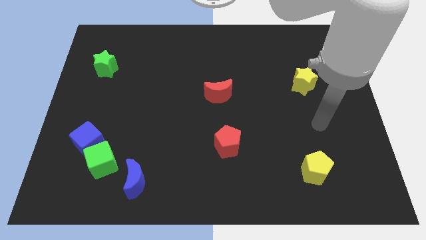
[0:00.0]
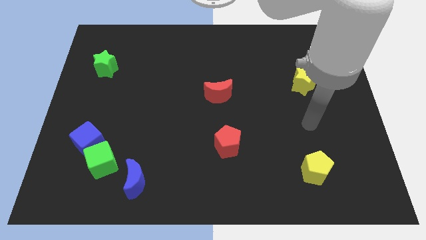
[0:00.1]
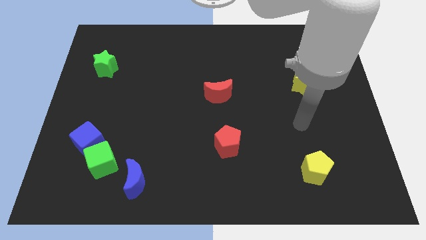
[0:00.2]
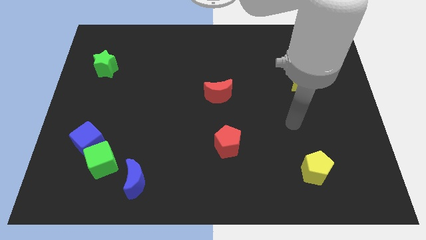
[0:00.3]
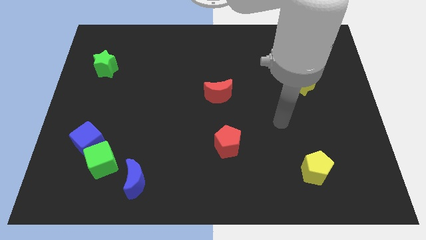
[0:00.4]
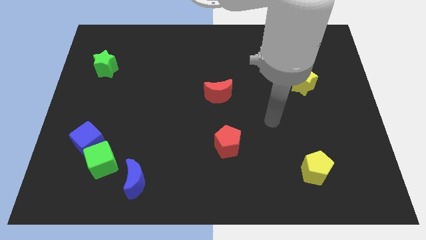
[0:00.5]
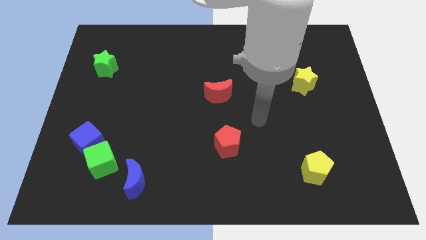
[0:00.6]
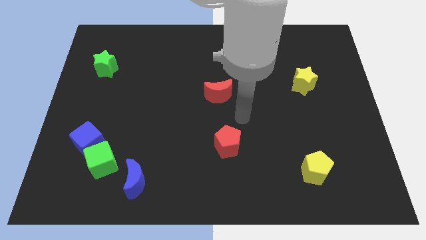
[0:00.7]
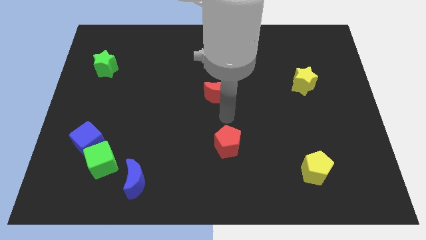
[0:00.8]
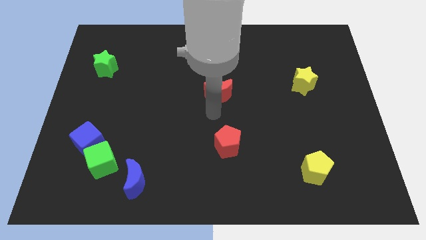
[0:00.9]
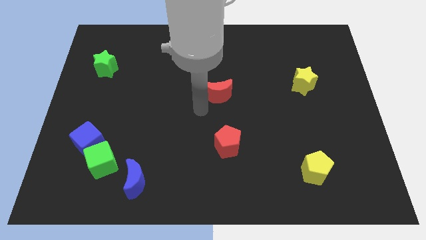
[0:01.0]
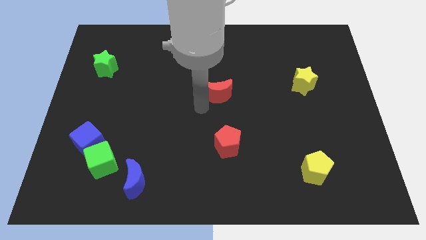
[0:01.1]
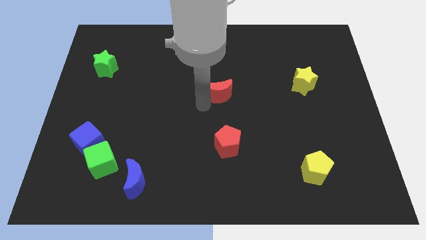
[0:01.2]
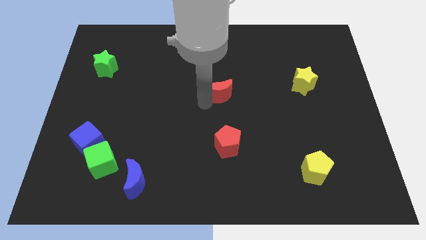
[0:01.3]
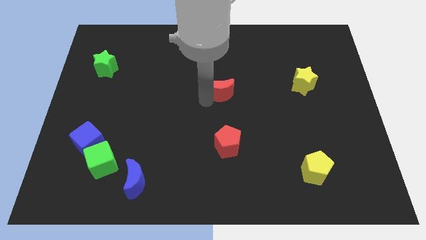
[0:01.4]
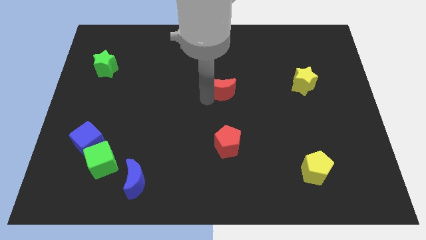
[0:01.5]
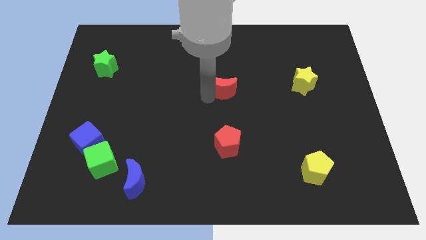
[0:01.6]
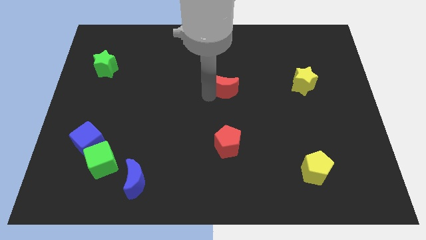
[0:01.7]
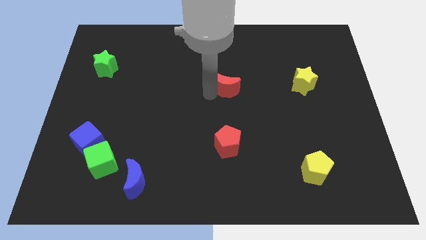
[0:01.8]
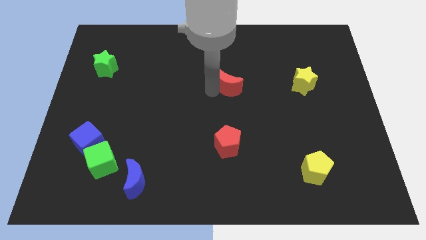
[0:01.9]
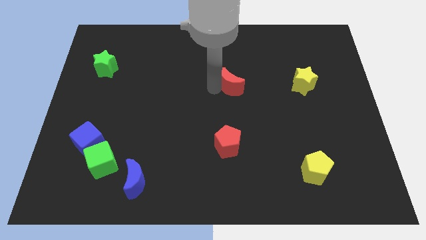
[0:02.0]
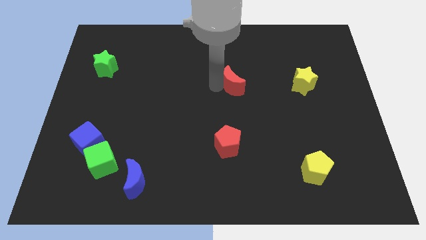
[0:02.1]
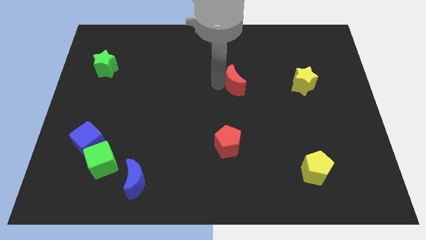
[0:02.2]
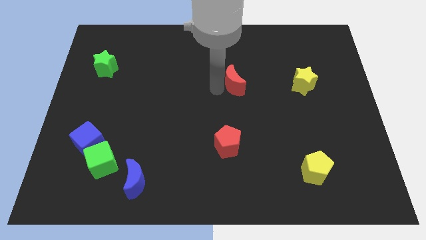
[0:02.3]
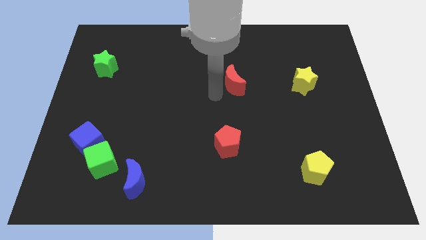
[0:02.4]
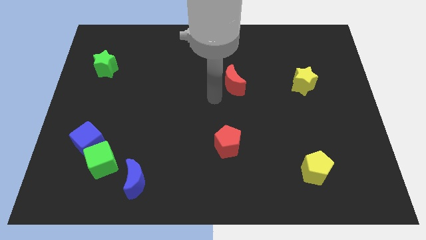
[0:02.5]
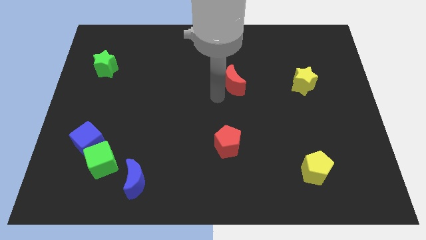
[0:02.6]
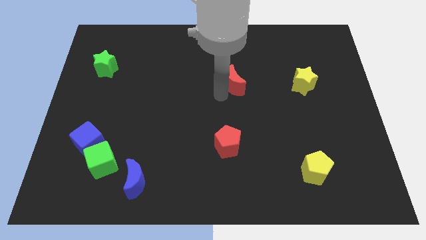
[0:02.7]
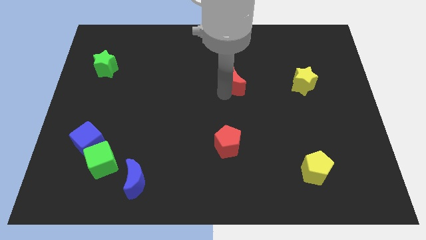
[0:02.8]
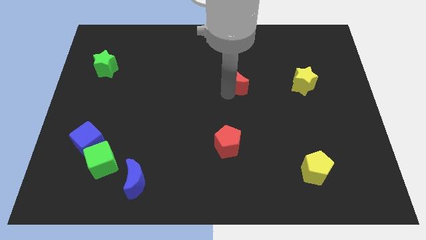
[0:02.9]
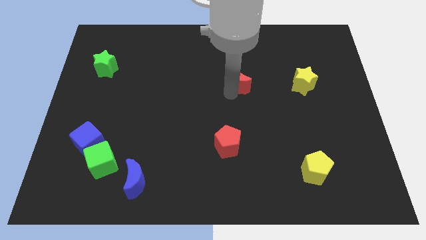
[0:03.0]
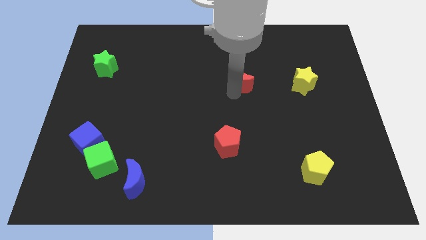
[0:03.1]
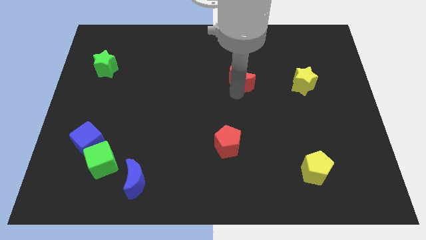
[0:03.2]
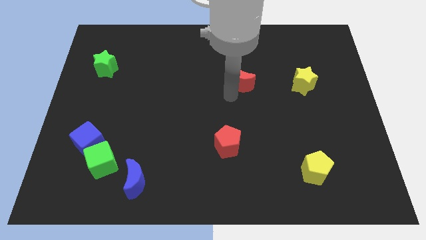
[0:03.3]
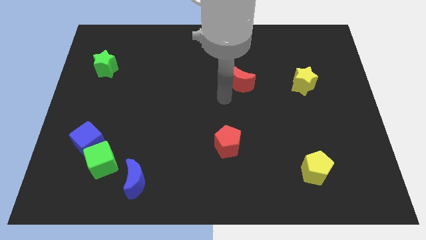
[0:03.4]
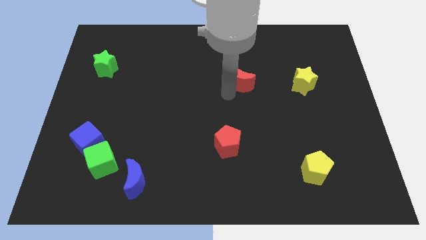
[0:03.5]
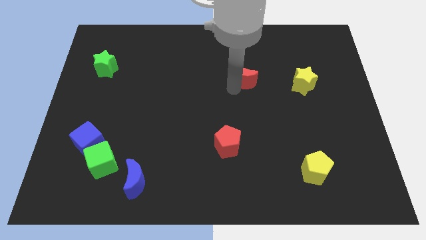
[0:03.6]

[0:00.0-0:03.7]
slightly slide the red moon up and right diagonally

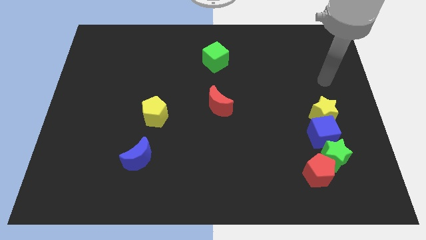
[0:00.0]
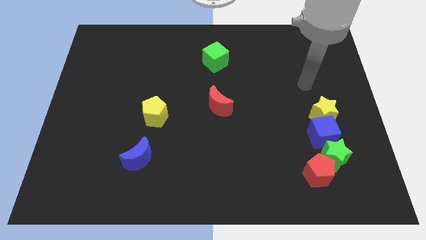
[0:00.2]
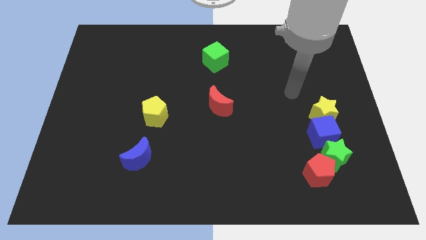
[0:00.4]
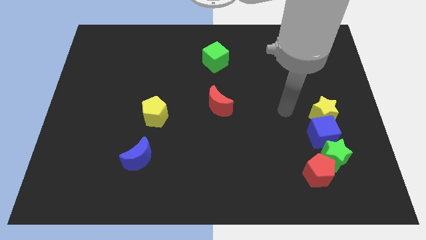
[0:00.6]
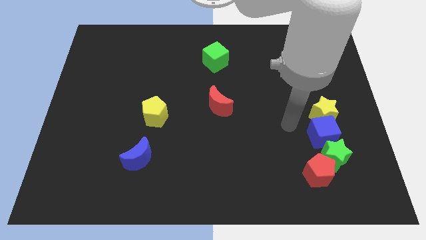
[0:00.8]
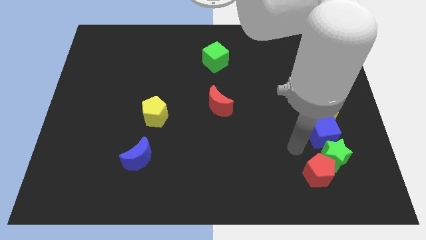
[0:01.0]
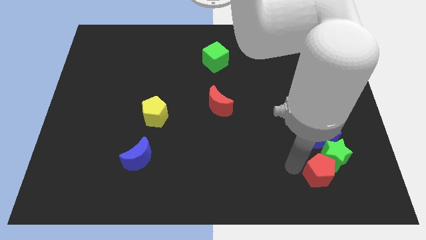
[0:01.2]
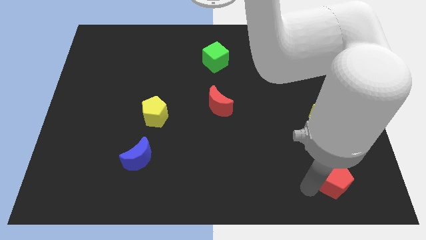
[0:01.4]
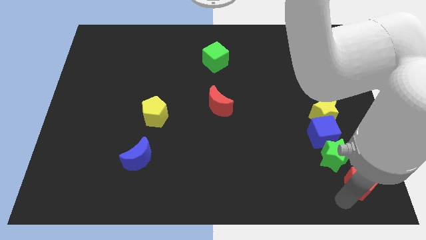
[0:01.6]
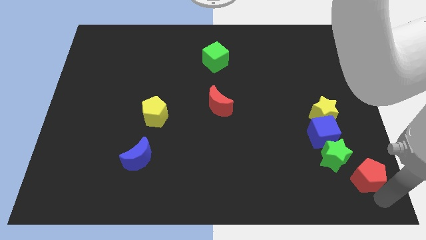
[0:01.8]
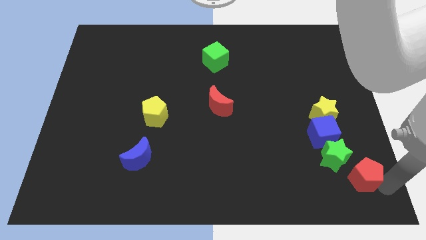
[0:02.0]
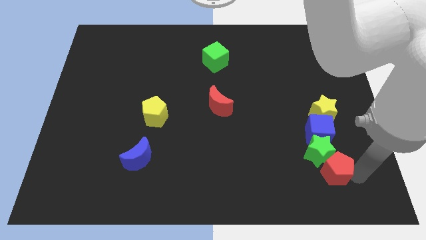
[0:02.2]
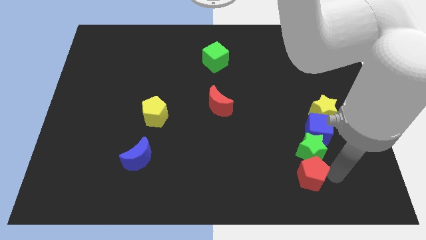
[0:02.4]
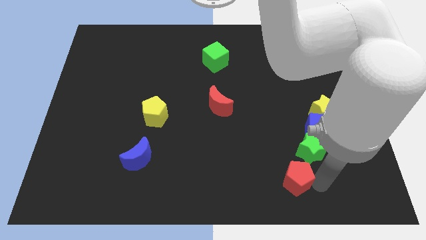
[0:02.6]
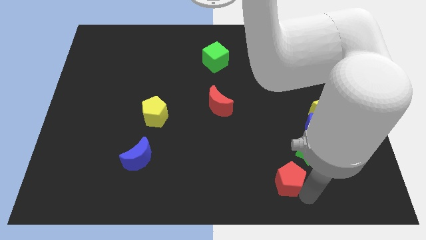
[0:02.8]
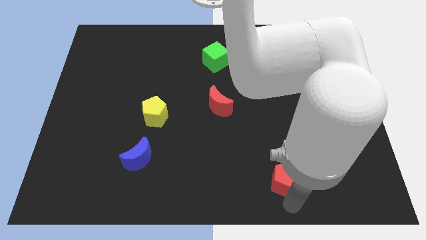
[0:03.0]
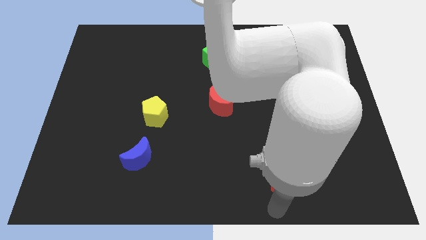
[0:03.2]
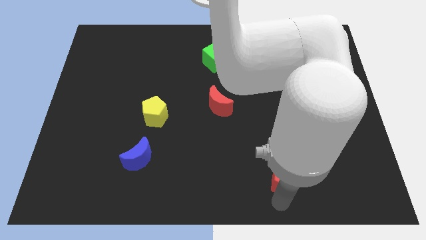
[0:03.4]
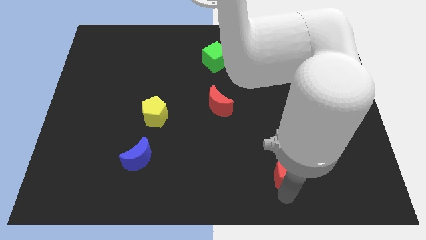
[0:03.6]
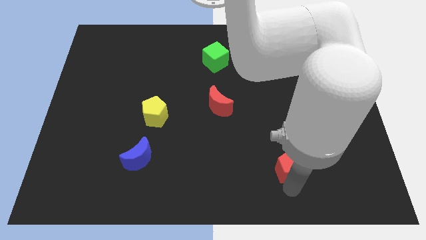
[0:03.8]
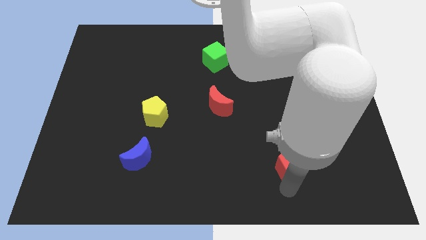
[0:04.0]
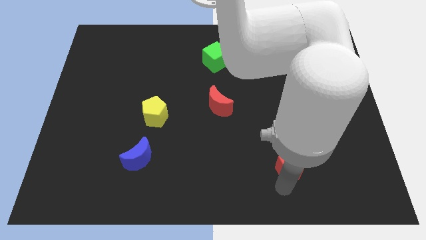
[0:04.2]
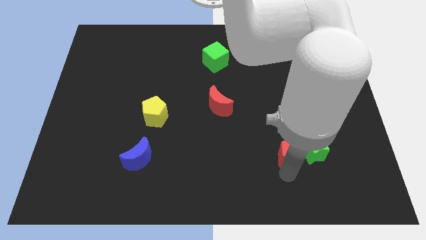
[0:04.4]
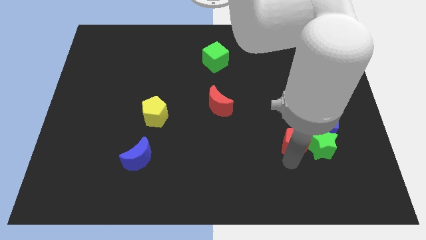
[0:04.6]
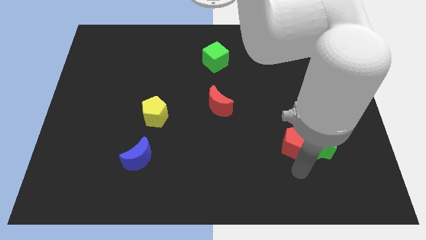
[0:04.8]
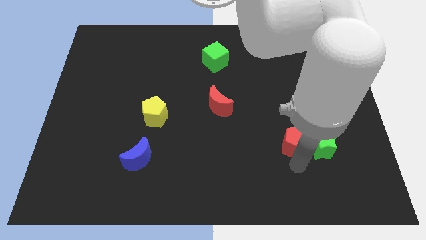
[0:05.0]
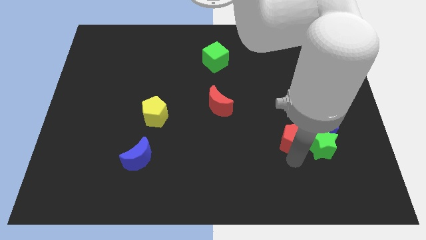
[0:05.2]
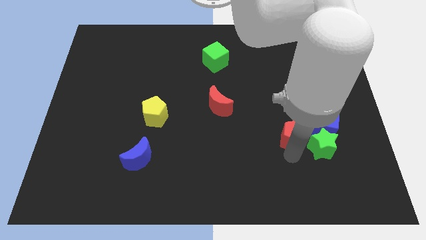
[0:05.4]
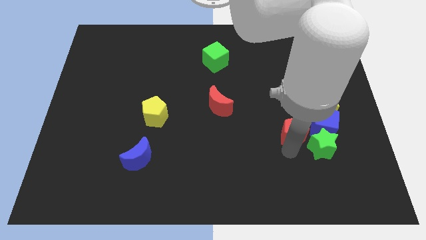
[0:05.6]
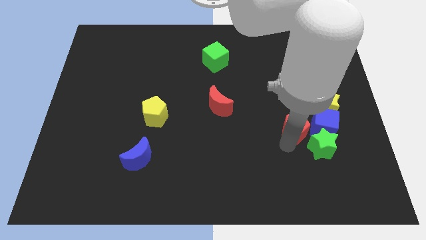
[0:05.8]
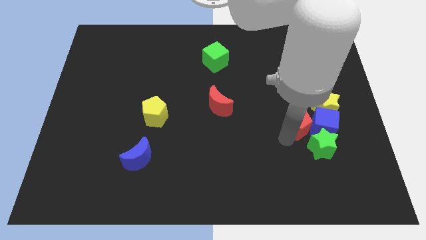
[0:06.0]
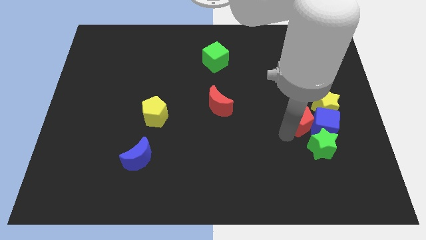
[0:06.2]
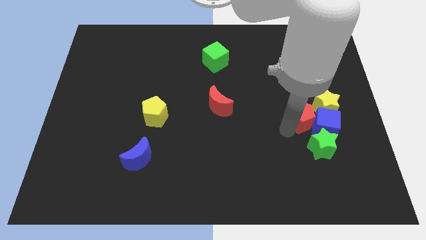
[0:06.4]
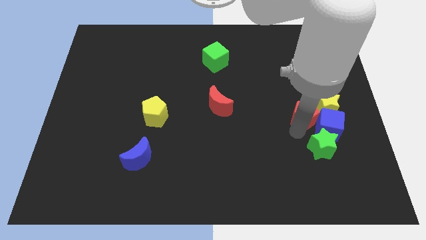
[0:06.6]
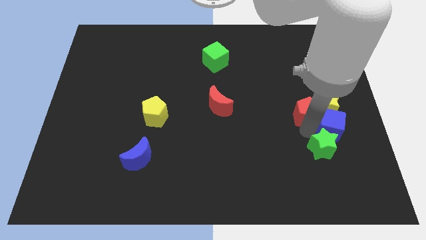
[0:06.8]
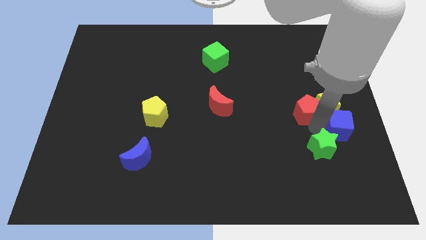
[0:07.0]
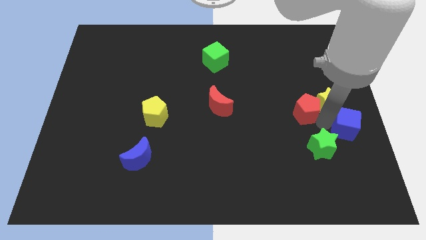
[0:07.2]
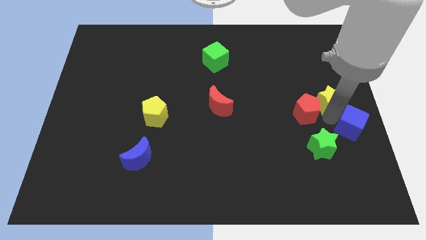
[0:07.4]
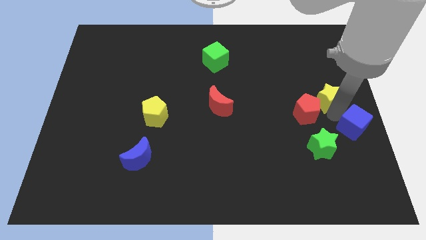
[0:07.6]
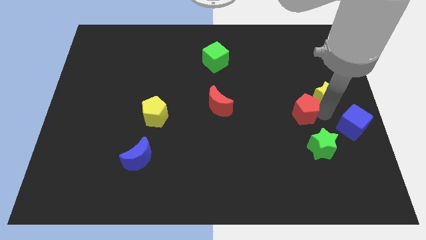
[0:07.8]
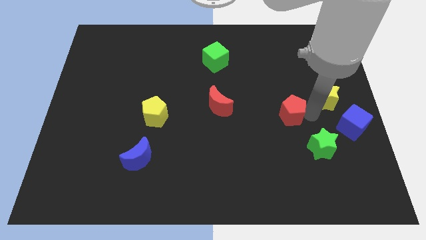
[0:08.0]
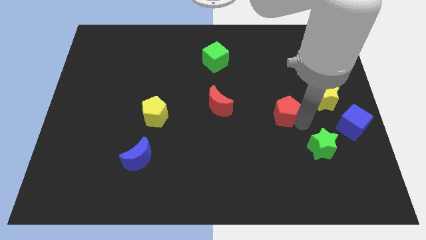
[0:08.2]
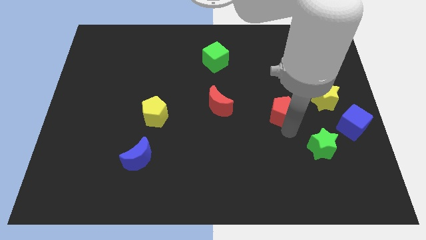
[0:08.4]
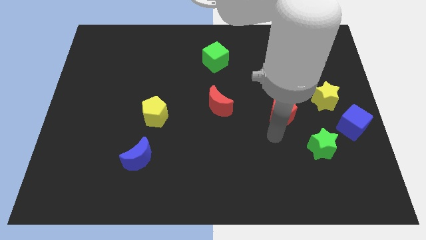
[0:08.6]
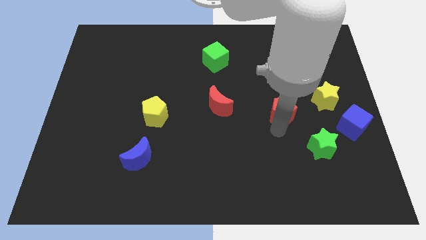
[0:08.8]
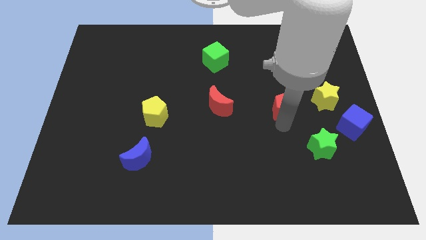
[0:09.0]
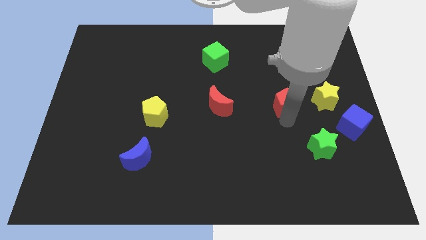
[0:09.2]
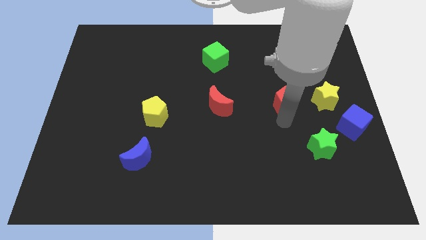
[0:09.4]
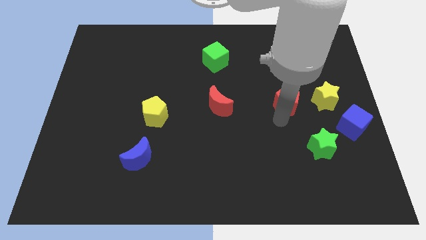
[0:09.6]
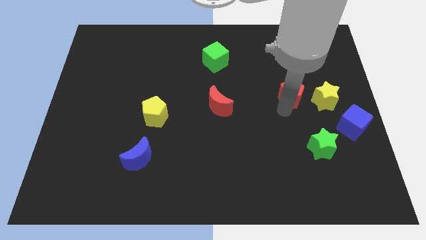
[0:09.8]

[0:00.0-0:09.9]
push the red pentagon up

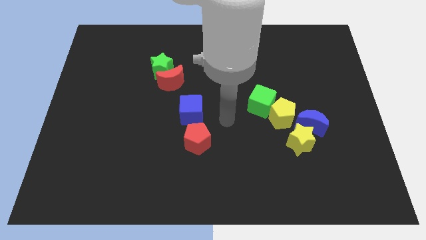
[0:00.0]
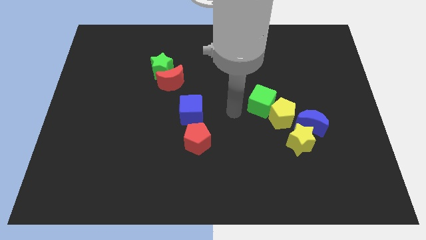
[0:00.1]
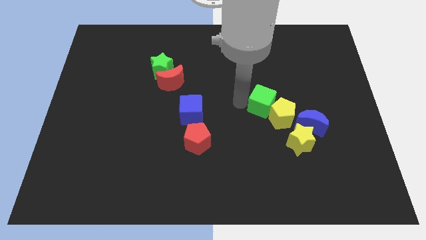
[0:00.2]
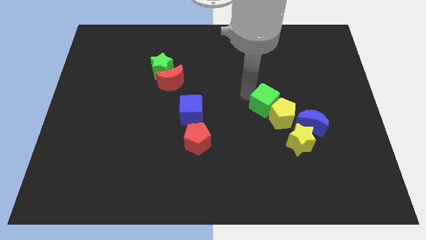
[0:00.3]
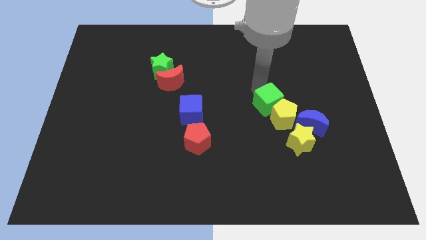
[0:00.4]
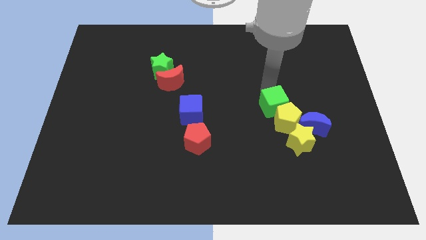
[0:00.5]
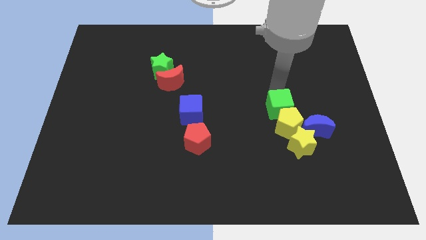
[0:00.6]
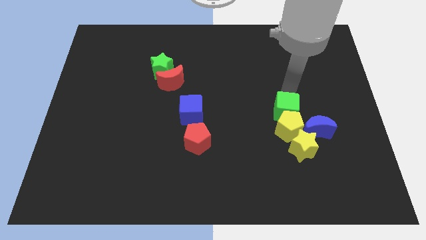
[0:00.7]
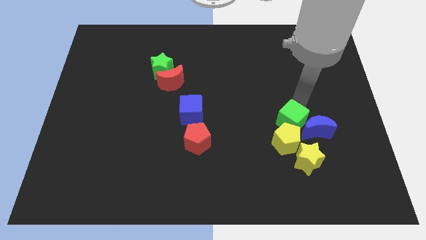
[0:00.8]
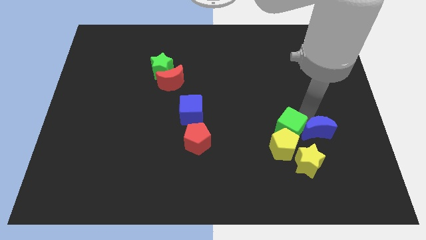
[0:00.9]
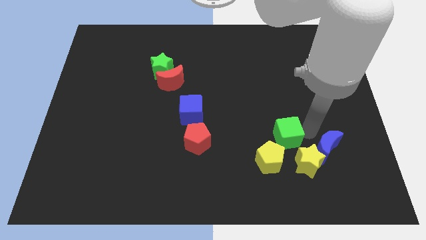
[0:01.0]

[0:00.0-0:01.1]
slide the yellow pentagon a little bit down and to the left
